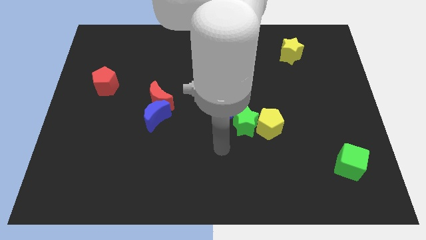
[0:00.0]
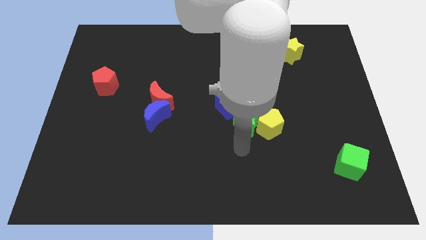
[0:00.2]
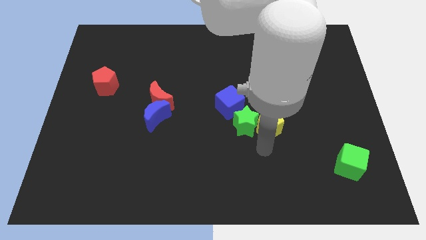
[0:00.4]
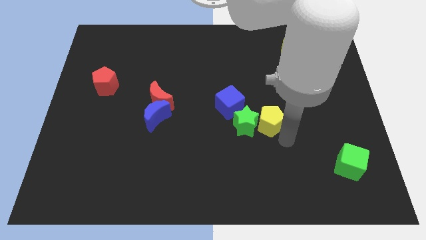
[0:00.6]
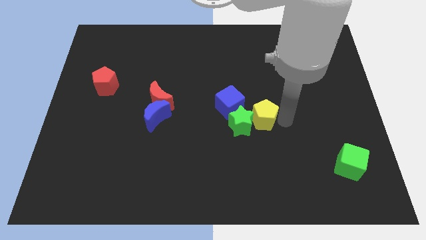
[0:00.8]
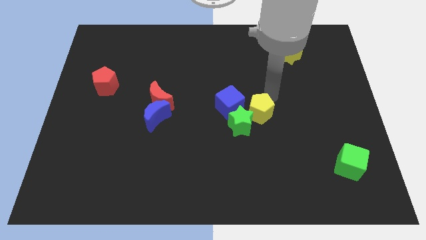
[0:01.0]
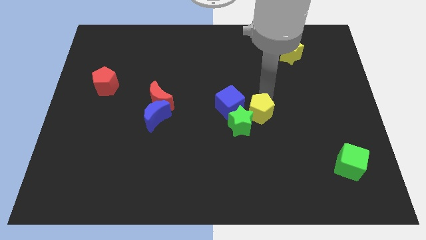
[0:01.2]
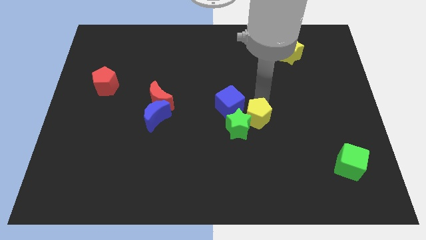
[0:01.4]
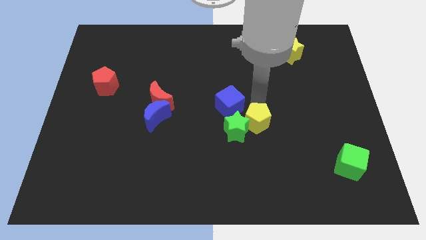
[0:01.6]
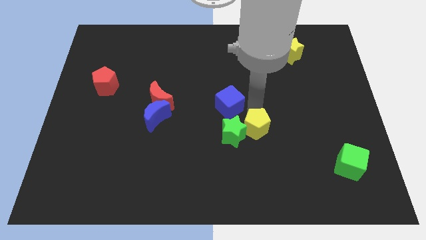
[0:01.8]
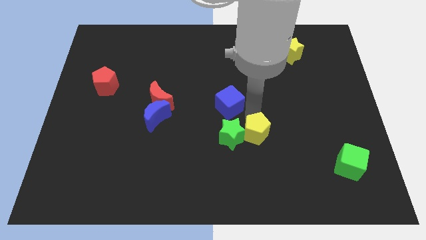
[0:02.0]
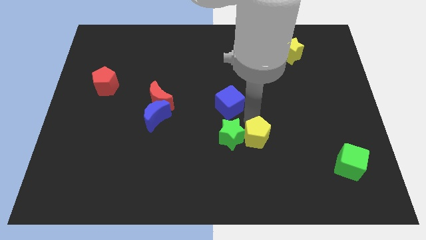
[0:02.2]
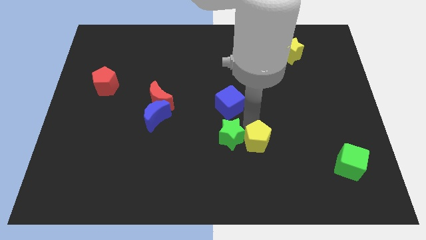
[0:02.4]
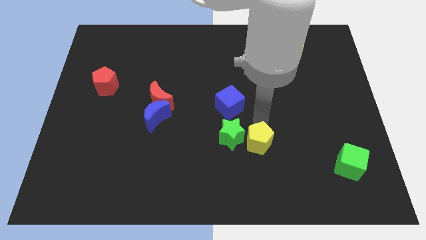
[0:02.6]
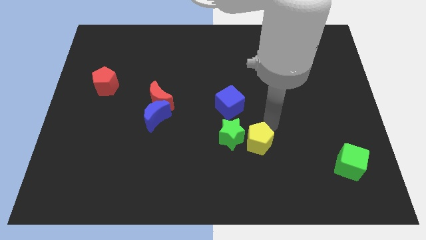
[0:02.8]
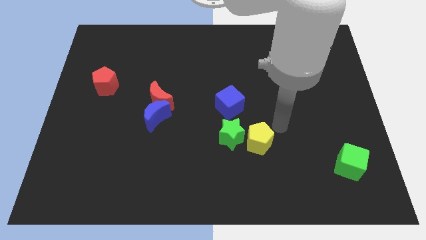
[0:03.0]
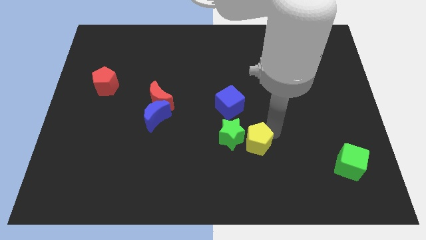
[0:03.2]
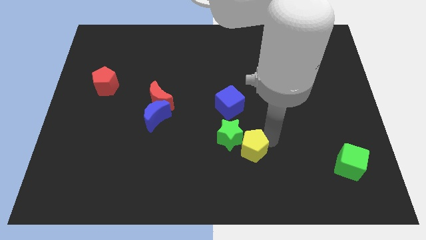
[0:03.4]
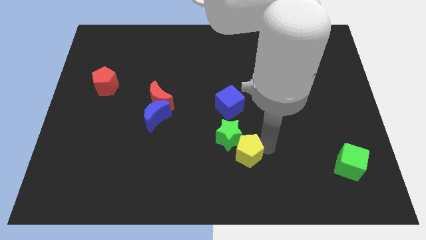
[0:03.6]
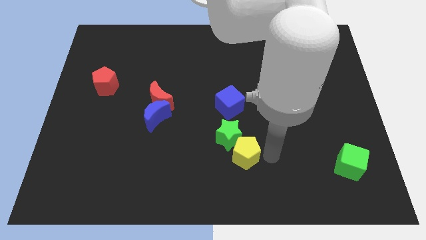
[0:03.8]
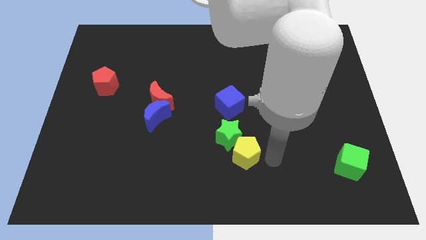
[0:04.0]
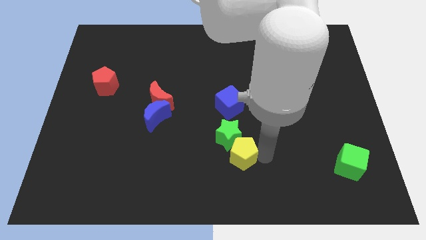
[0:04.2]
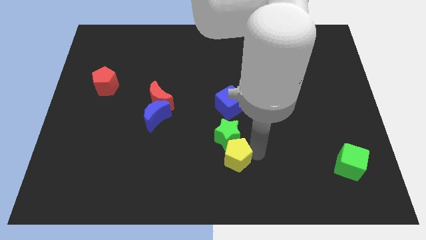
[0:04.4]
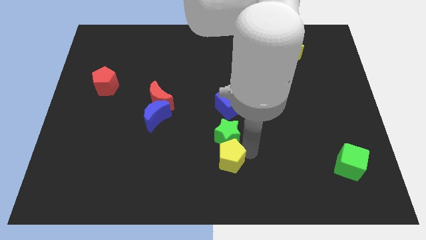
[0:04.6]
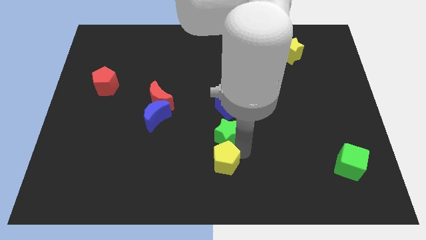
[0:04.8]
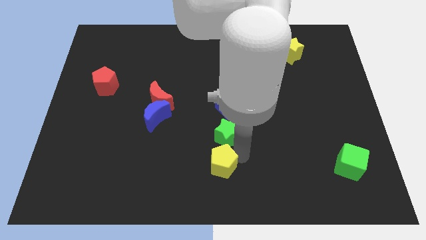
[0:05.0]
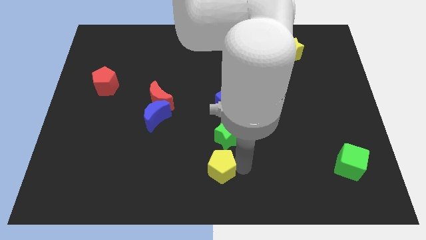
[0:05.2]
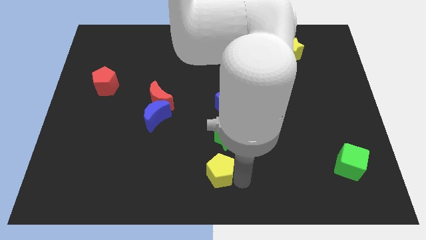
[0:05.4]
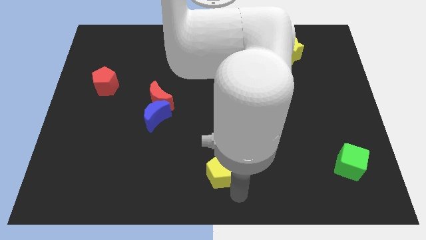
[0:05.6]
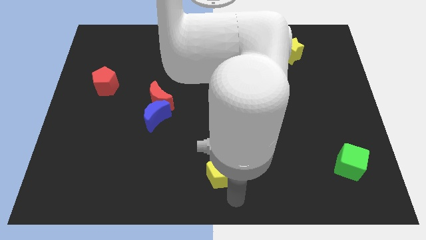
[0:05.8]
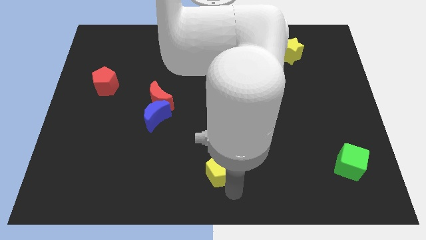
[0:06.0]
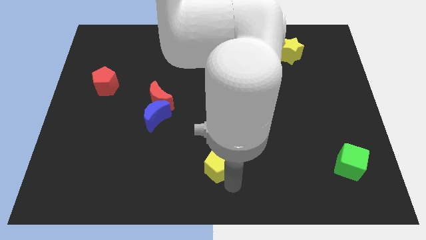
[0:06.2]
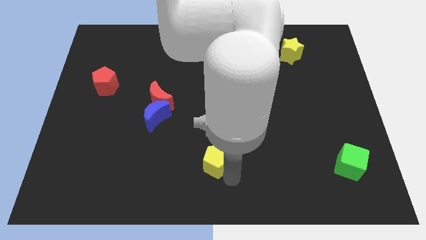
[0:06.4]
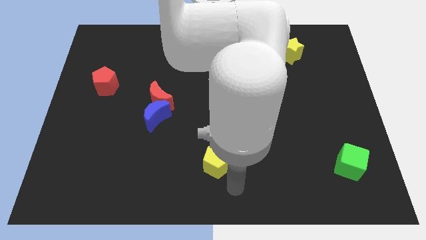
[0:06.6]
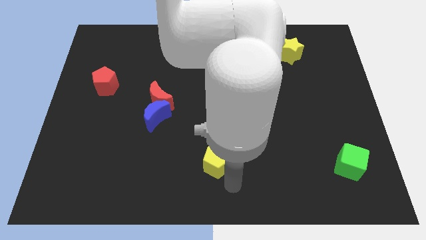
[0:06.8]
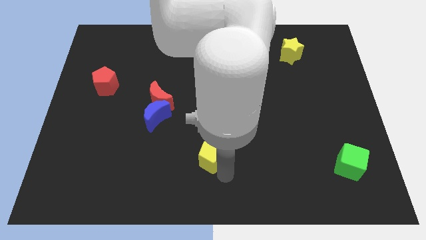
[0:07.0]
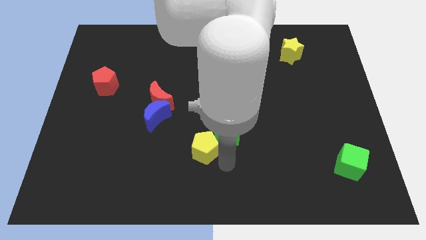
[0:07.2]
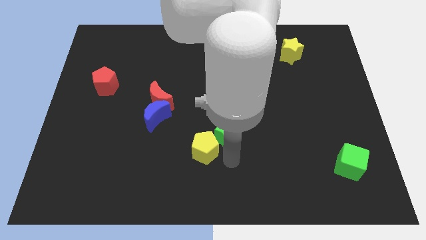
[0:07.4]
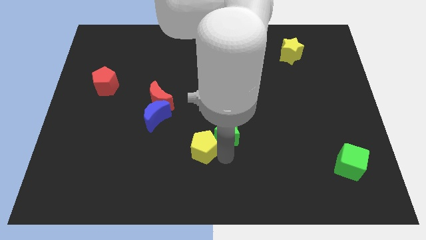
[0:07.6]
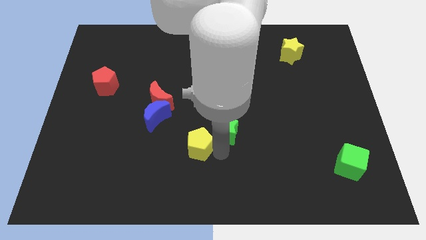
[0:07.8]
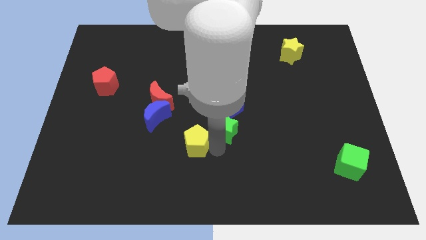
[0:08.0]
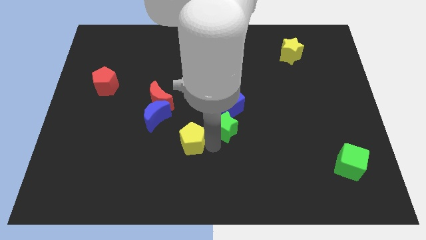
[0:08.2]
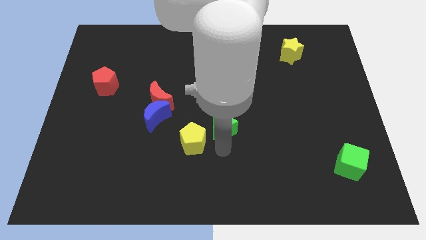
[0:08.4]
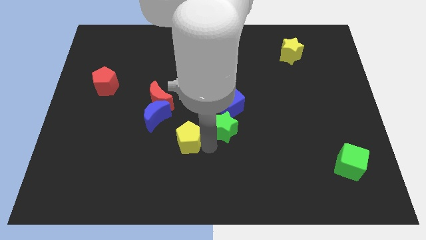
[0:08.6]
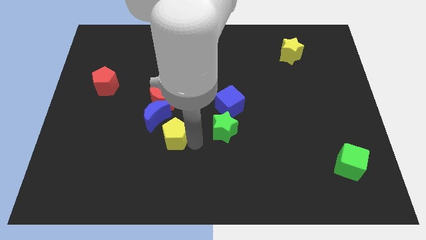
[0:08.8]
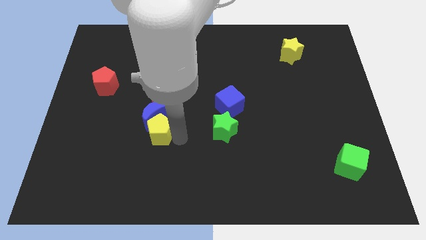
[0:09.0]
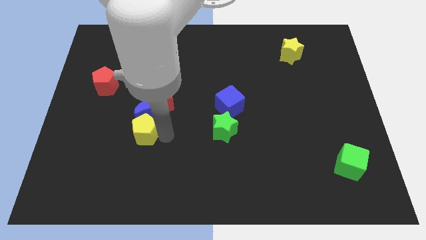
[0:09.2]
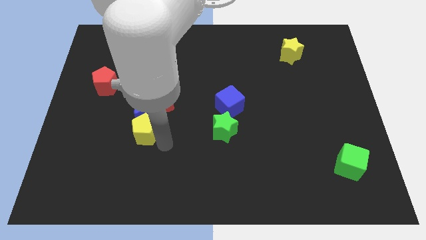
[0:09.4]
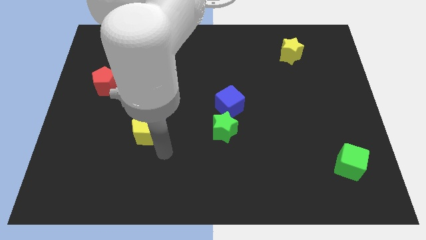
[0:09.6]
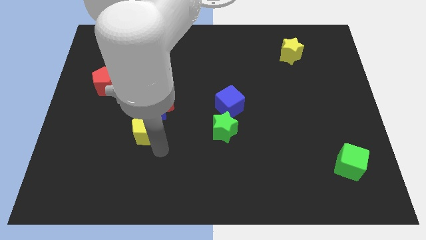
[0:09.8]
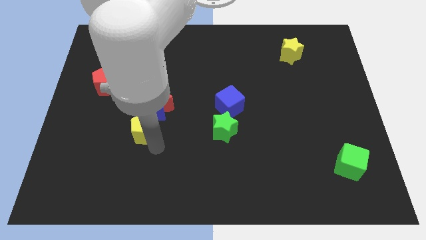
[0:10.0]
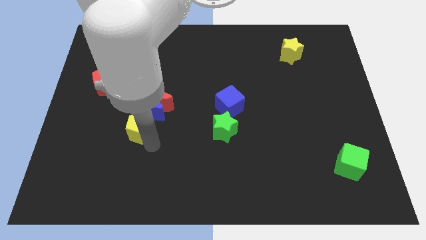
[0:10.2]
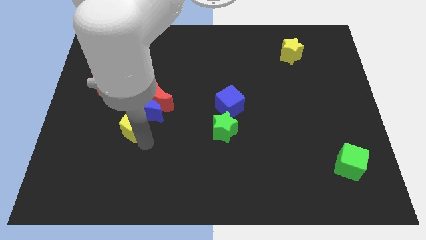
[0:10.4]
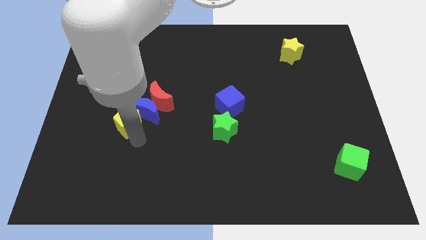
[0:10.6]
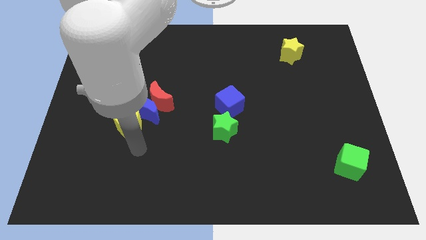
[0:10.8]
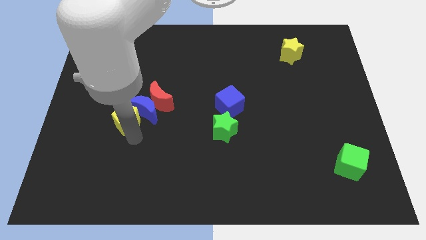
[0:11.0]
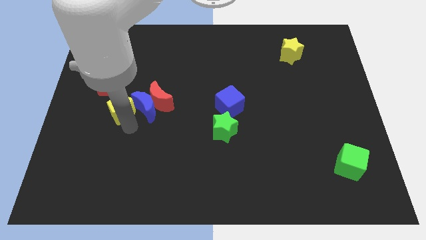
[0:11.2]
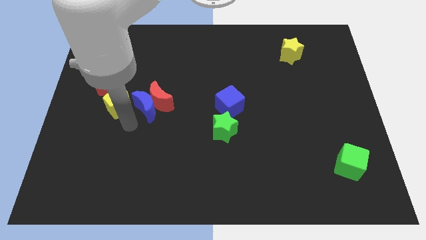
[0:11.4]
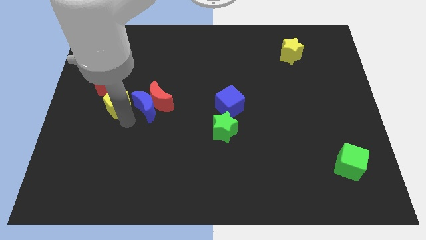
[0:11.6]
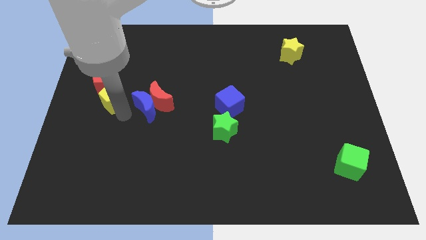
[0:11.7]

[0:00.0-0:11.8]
move the yellow pentagon next to the red pentagon

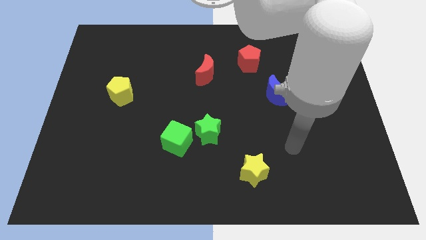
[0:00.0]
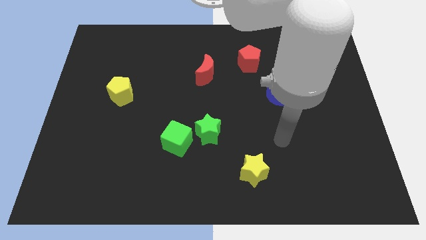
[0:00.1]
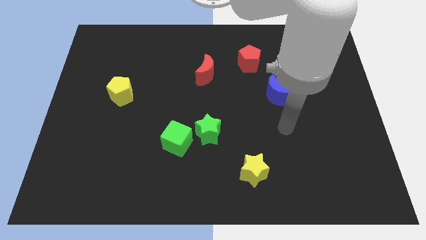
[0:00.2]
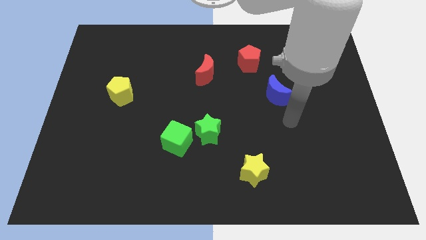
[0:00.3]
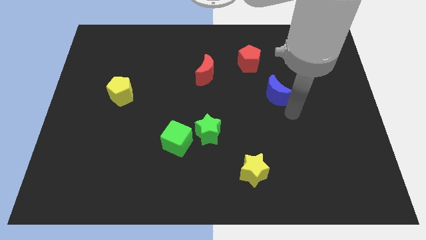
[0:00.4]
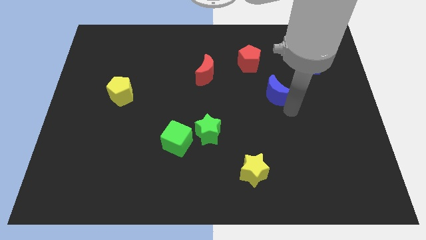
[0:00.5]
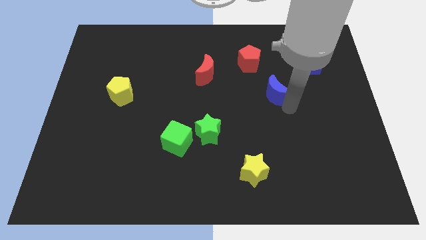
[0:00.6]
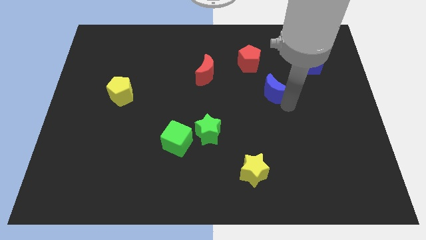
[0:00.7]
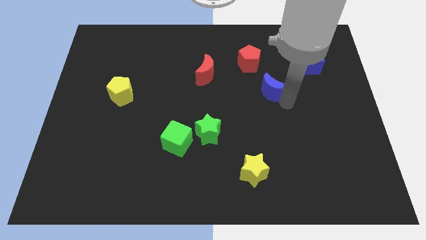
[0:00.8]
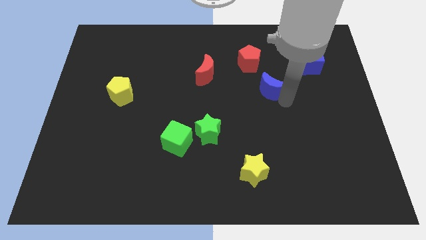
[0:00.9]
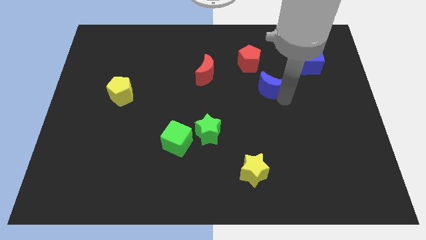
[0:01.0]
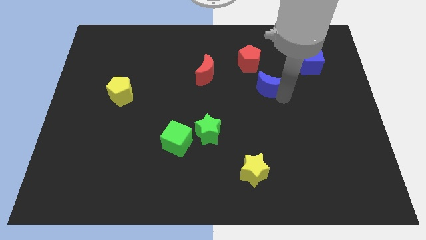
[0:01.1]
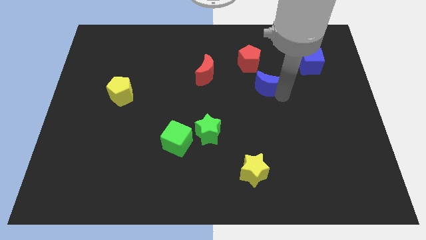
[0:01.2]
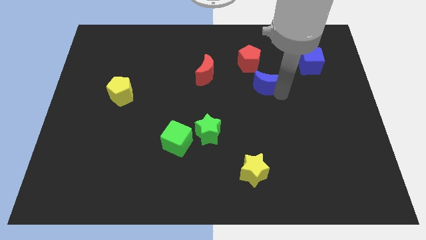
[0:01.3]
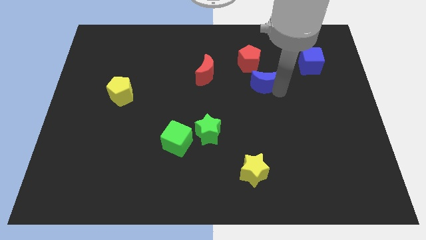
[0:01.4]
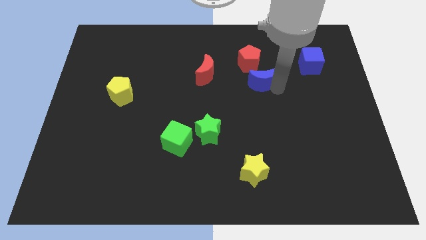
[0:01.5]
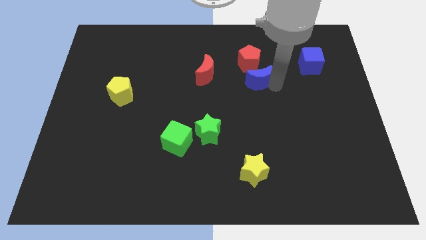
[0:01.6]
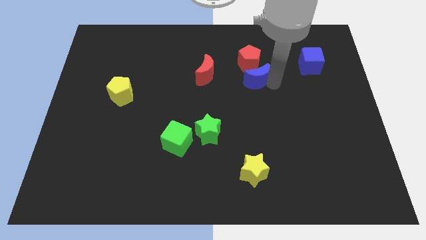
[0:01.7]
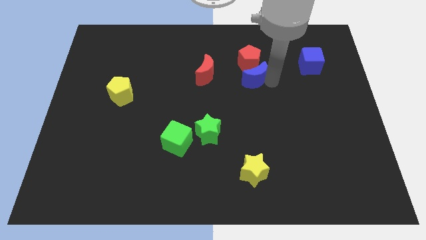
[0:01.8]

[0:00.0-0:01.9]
push the blue moon close to the red pentagon
